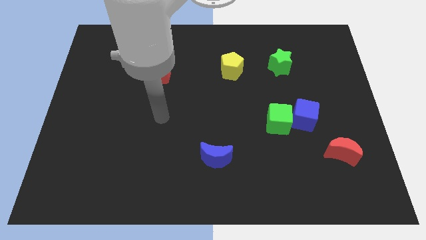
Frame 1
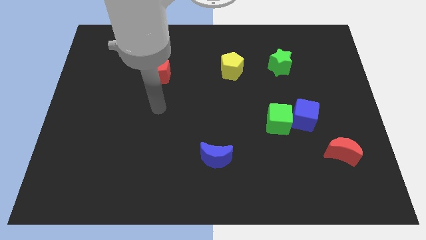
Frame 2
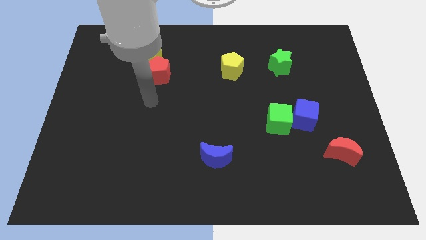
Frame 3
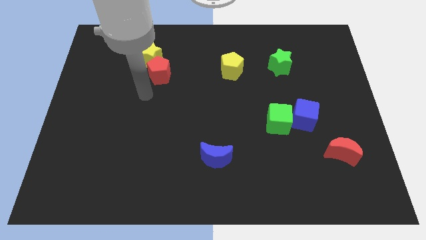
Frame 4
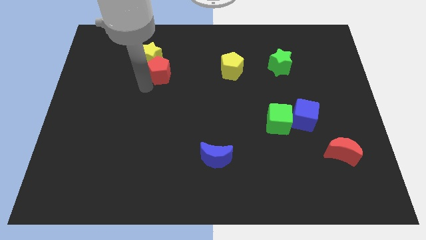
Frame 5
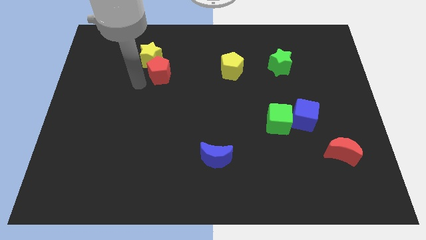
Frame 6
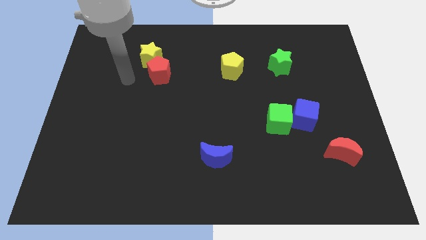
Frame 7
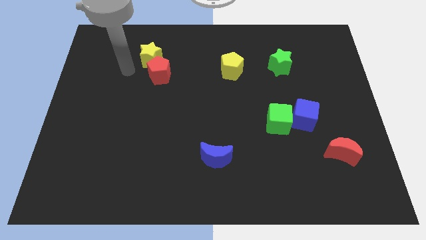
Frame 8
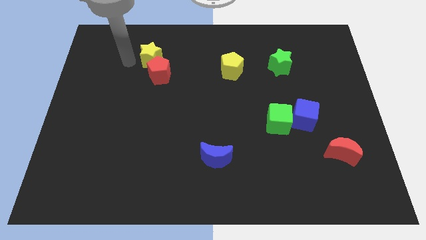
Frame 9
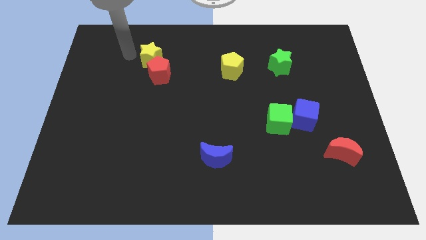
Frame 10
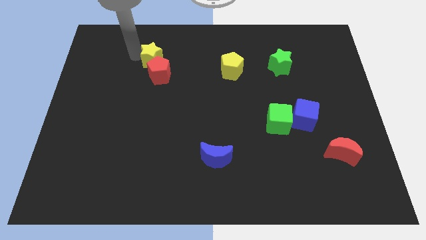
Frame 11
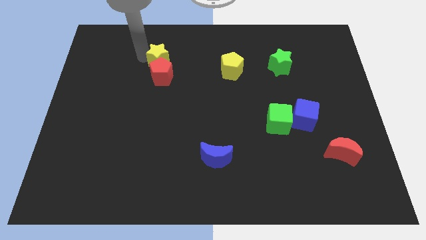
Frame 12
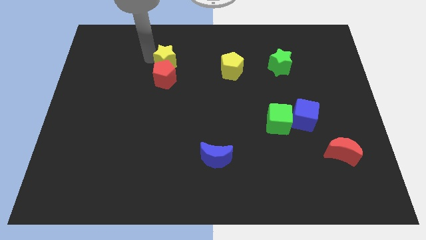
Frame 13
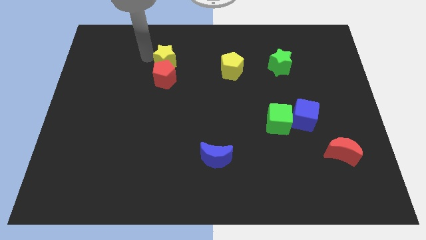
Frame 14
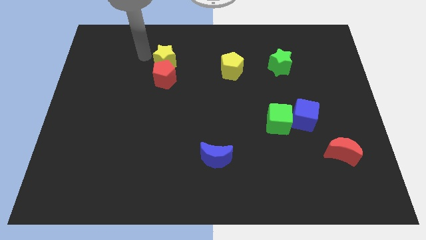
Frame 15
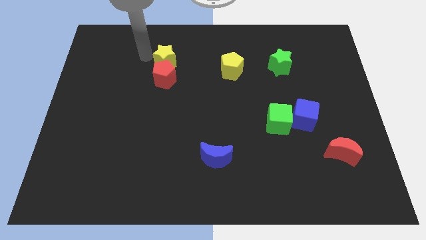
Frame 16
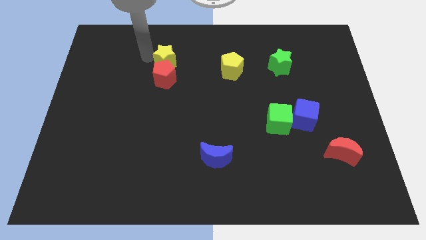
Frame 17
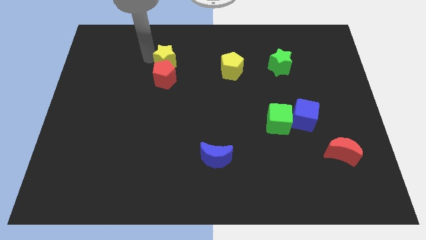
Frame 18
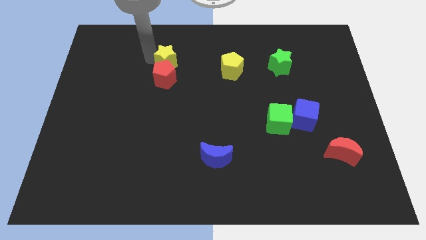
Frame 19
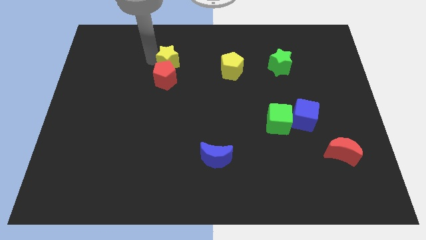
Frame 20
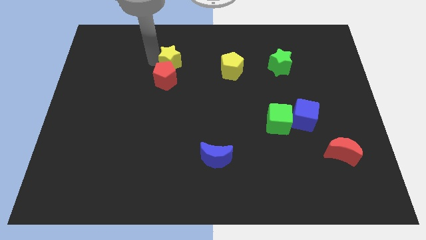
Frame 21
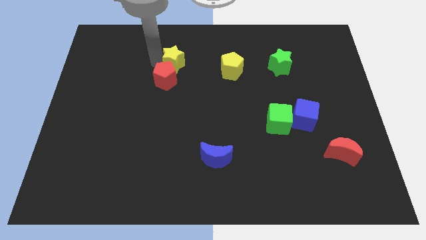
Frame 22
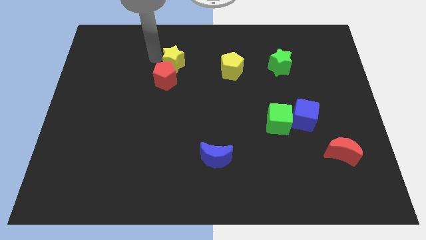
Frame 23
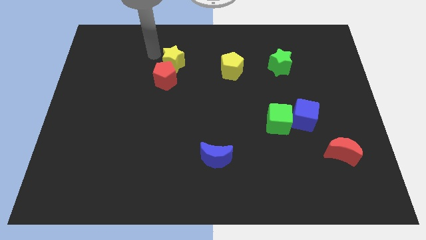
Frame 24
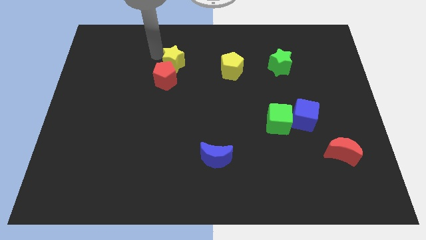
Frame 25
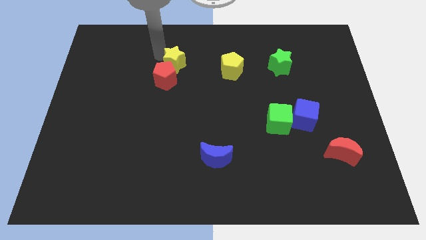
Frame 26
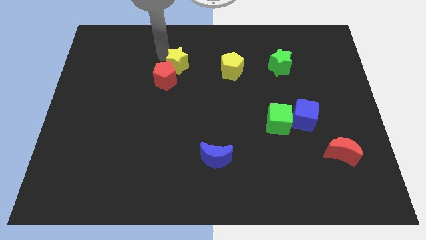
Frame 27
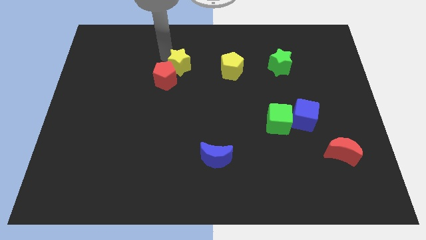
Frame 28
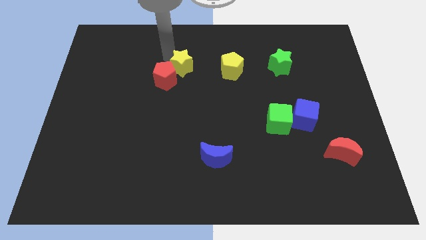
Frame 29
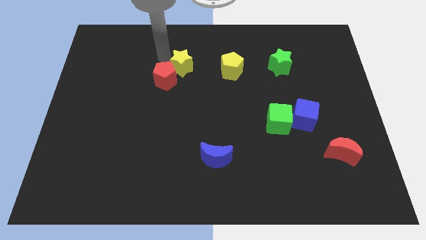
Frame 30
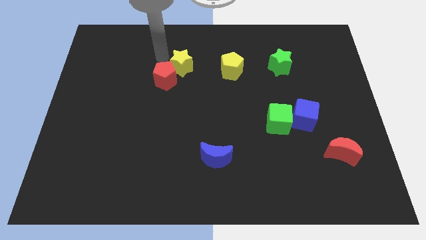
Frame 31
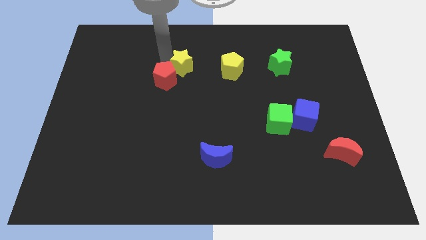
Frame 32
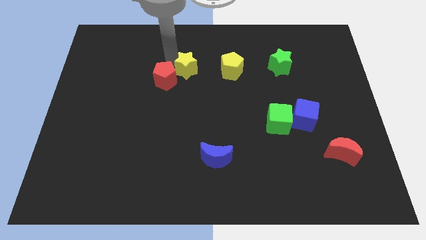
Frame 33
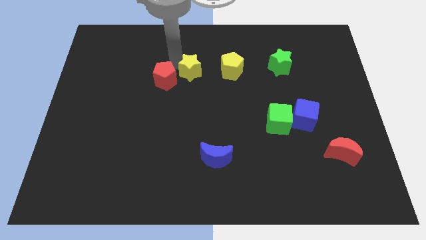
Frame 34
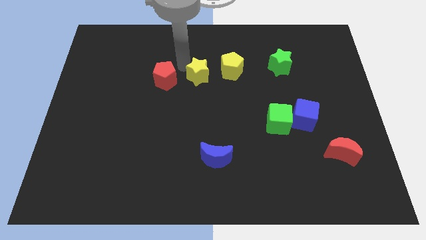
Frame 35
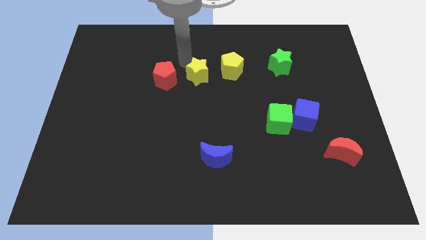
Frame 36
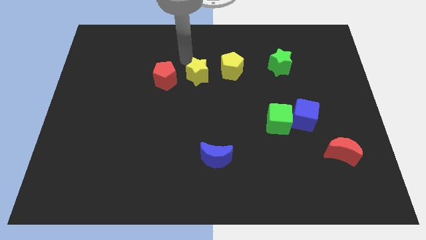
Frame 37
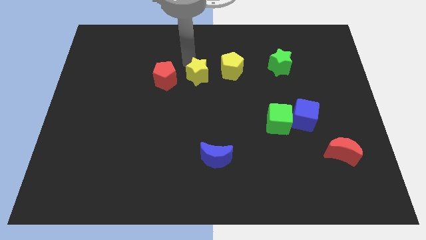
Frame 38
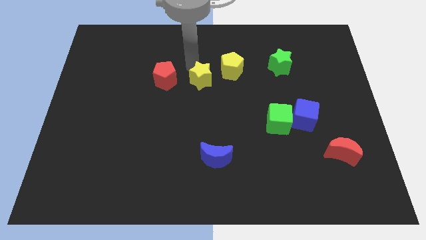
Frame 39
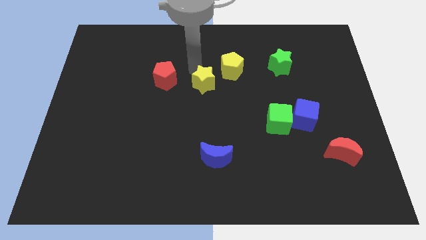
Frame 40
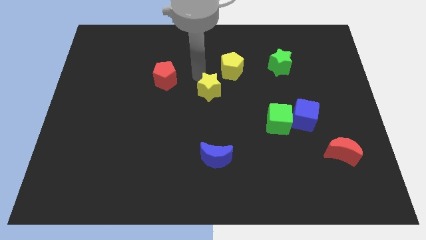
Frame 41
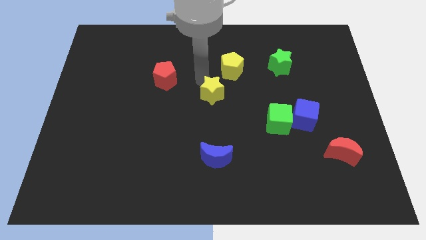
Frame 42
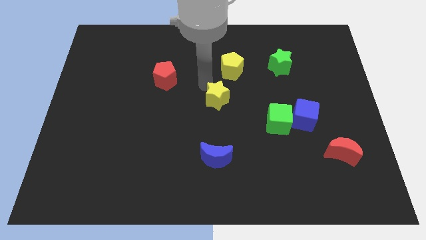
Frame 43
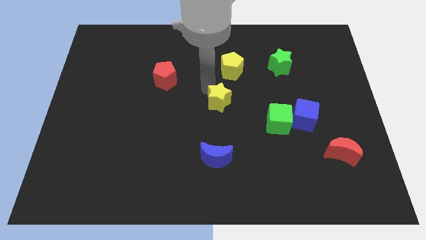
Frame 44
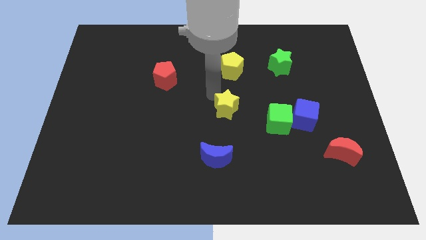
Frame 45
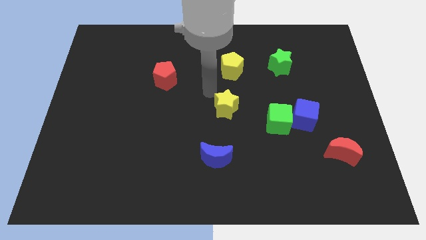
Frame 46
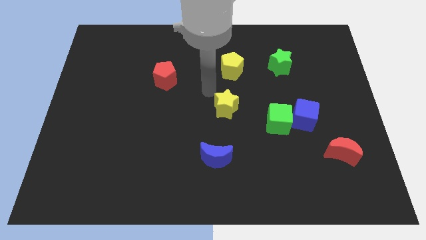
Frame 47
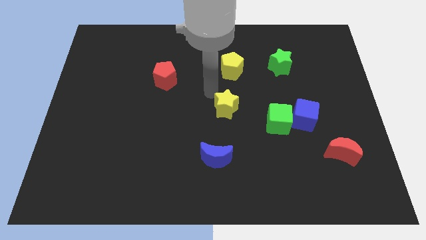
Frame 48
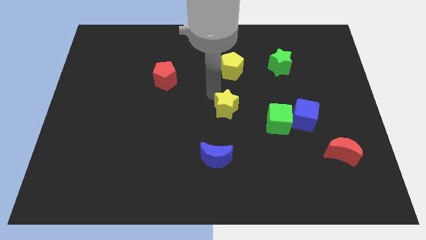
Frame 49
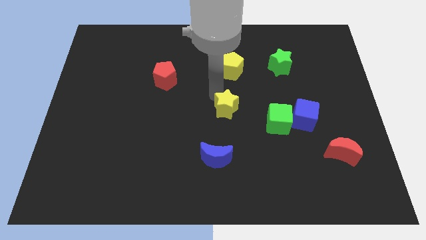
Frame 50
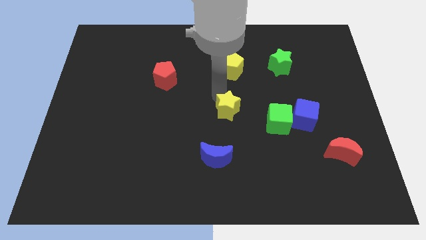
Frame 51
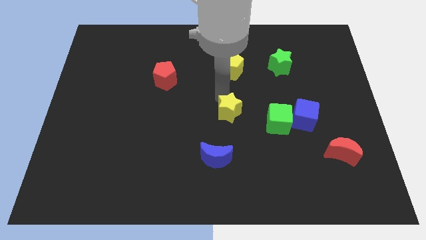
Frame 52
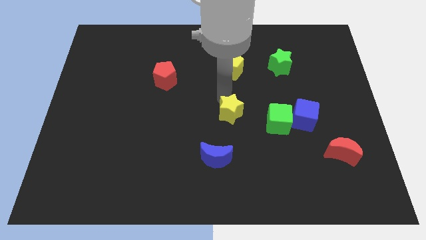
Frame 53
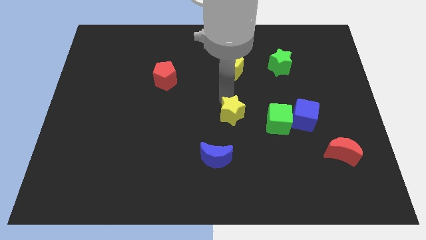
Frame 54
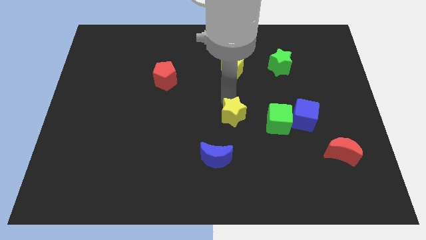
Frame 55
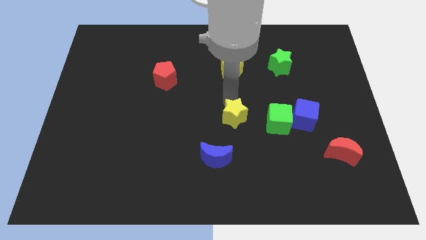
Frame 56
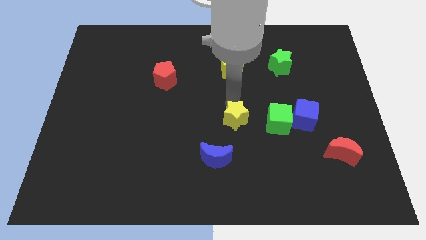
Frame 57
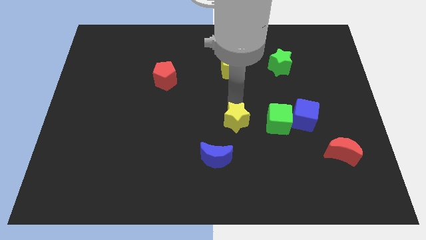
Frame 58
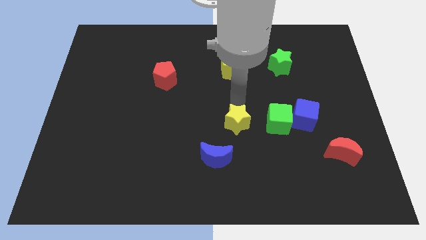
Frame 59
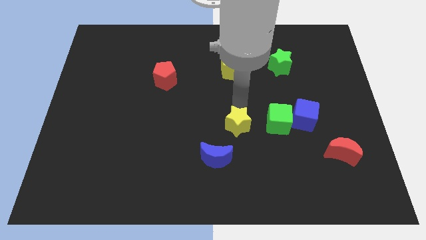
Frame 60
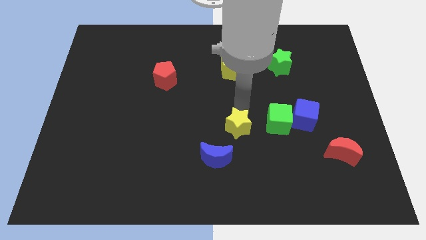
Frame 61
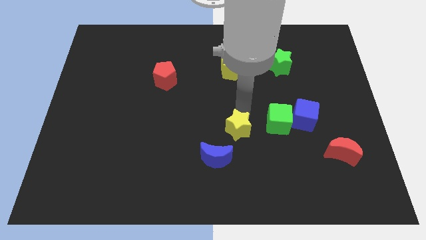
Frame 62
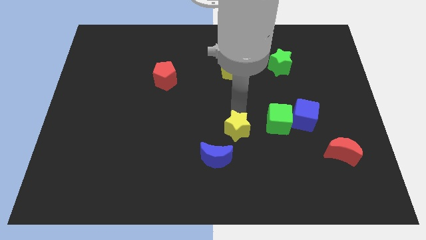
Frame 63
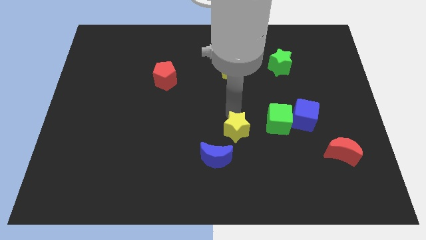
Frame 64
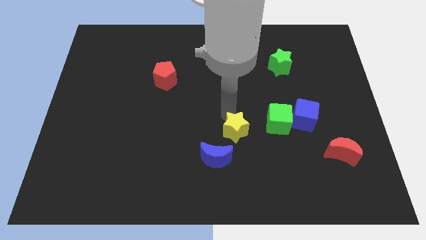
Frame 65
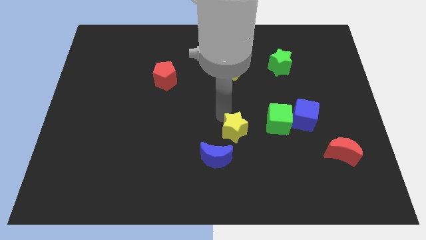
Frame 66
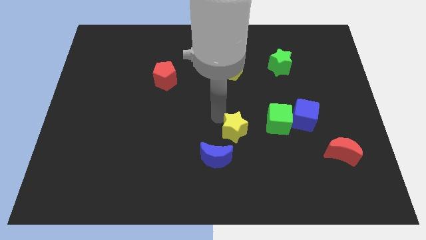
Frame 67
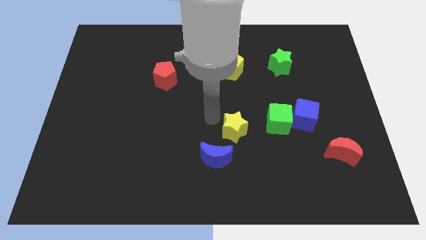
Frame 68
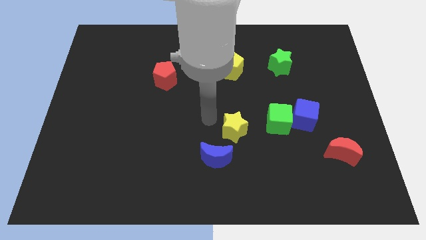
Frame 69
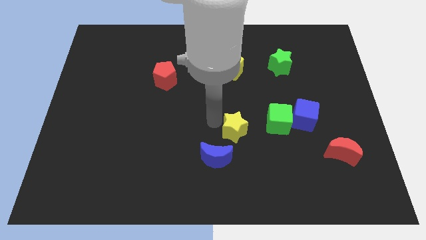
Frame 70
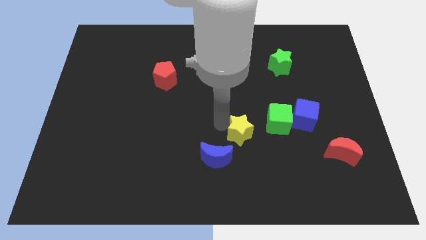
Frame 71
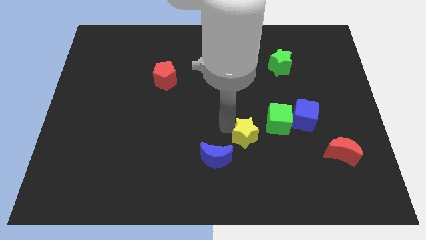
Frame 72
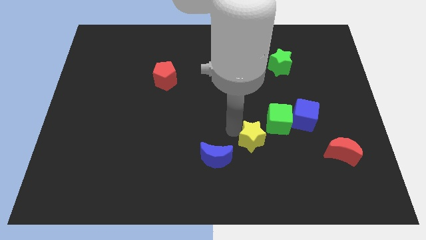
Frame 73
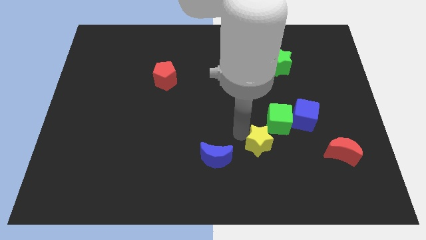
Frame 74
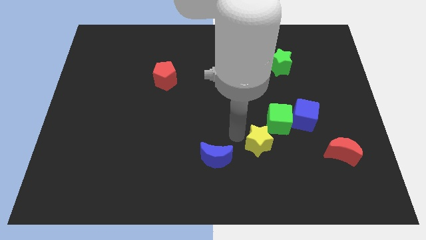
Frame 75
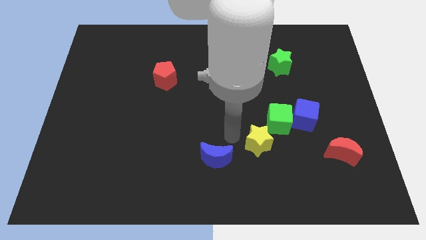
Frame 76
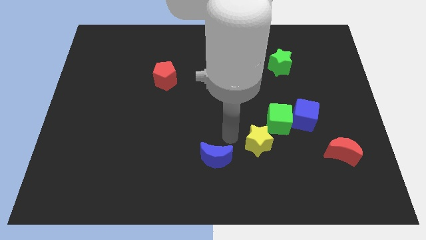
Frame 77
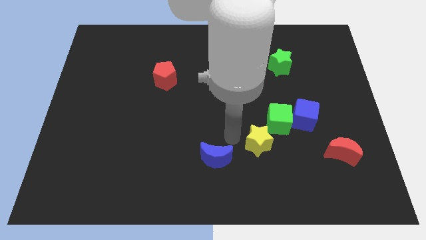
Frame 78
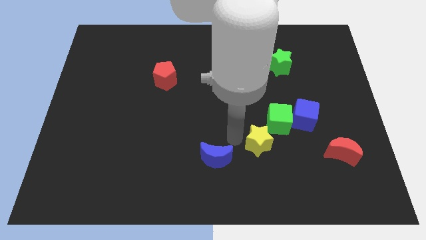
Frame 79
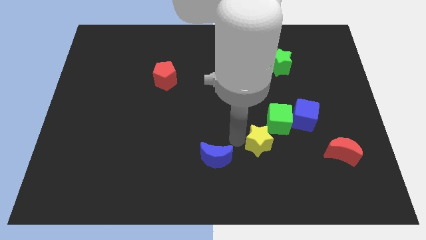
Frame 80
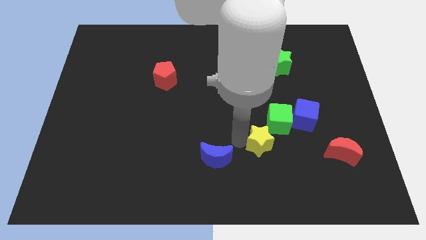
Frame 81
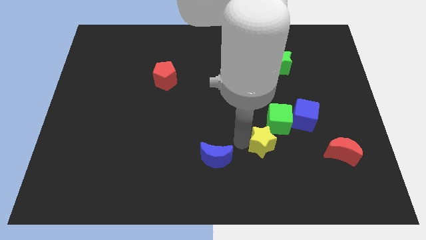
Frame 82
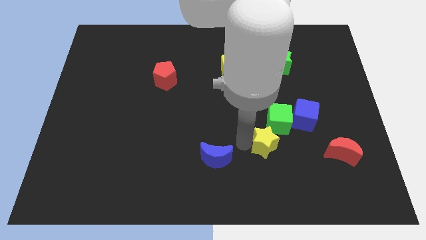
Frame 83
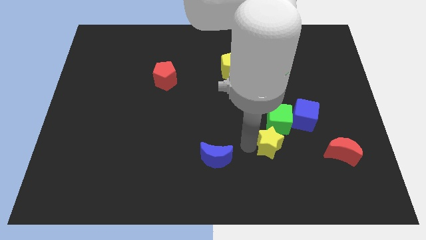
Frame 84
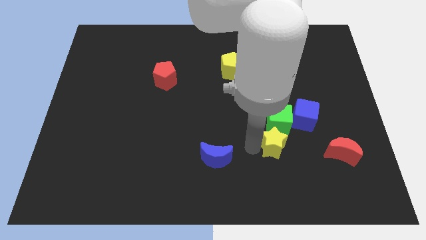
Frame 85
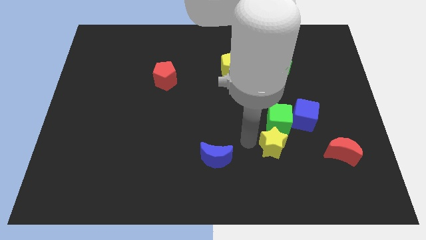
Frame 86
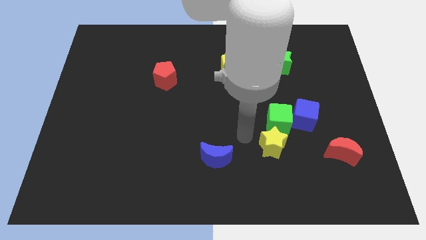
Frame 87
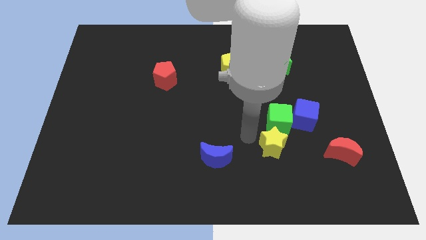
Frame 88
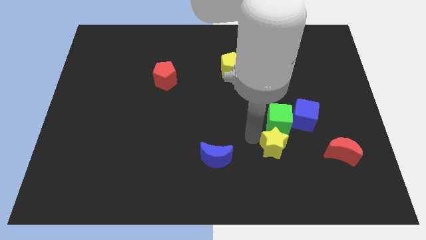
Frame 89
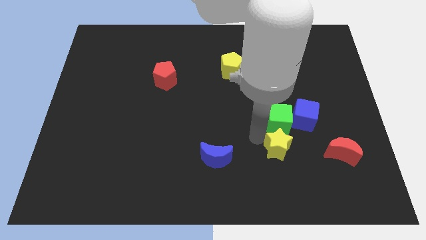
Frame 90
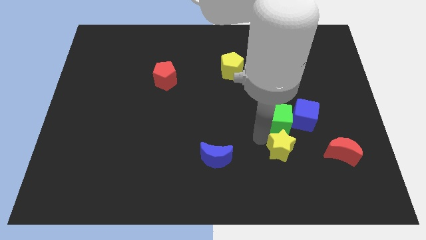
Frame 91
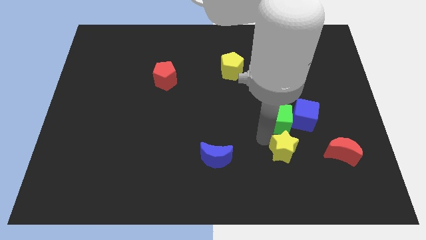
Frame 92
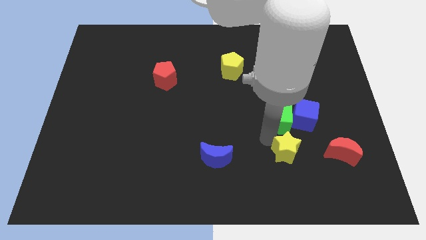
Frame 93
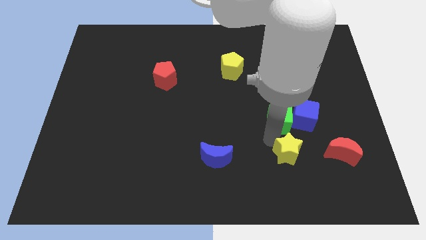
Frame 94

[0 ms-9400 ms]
slide the yellow star to the bottom side of the blue cube
